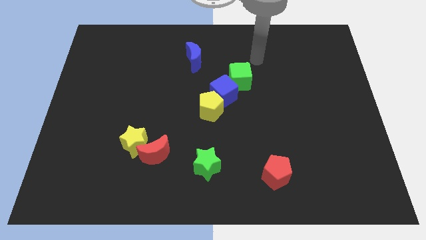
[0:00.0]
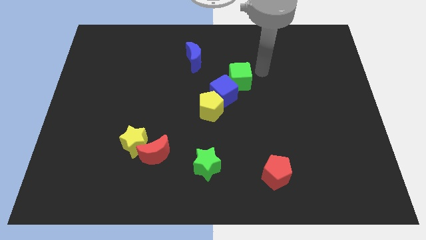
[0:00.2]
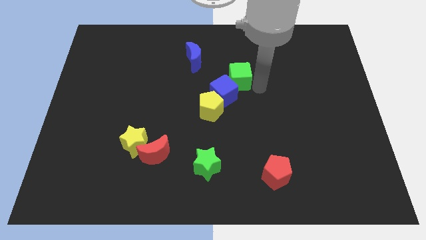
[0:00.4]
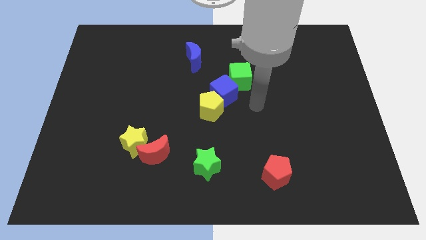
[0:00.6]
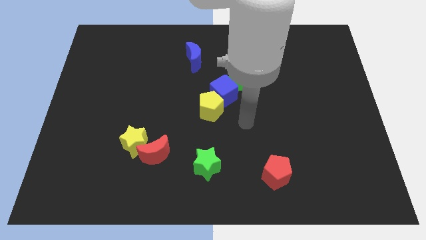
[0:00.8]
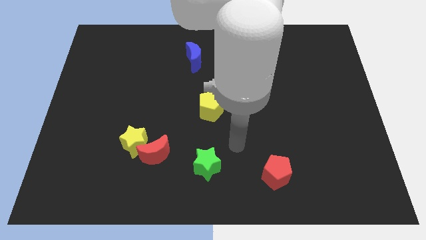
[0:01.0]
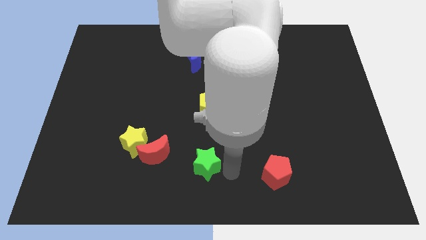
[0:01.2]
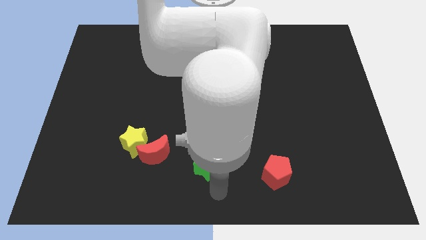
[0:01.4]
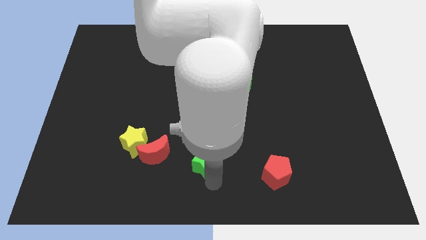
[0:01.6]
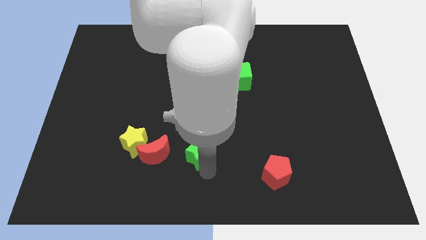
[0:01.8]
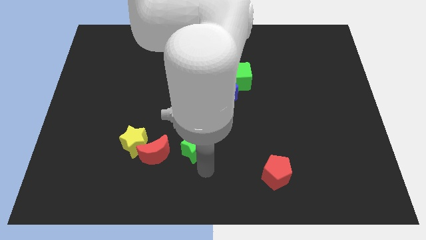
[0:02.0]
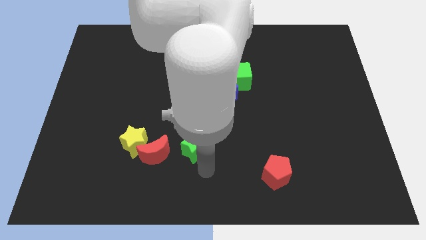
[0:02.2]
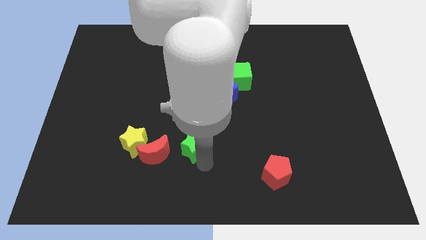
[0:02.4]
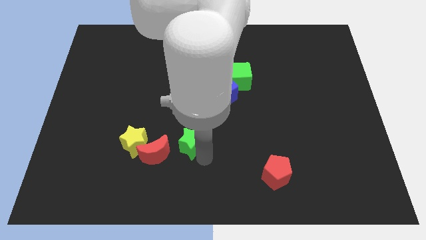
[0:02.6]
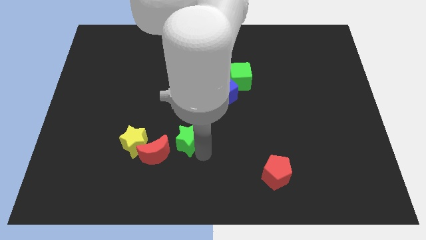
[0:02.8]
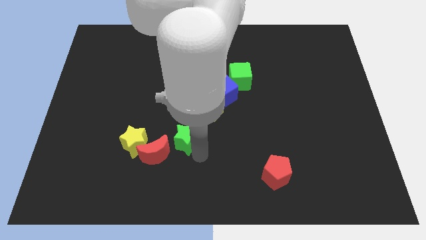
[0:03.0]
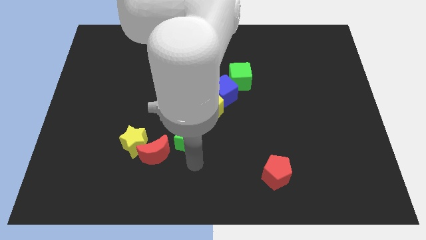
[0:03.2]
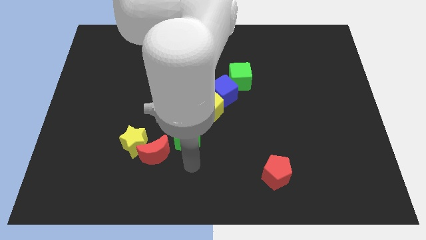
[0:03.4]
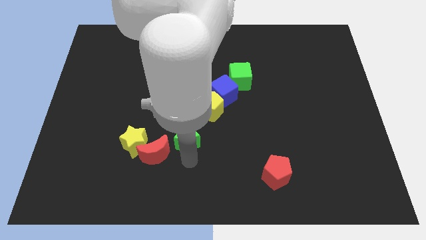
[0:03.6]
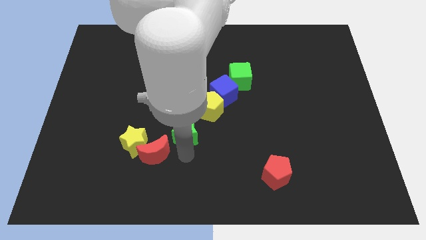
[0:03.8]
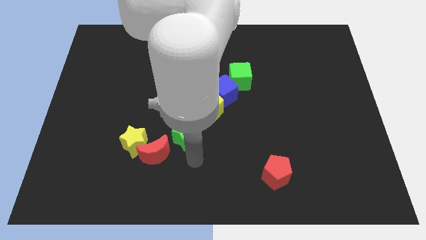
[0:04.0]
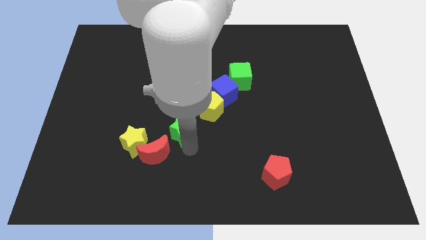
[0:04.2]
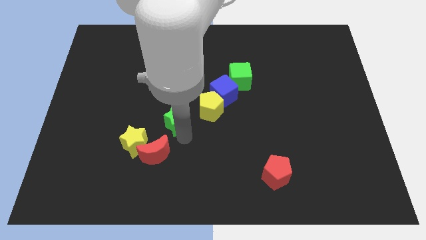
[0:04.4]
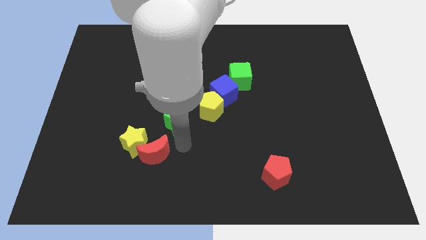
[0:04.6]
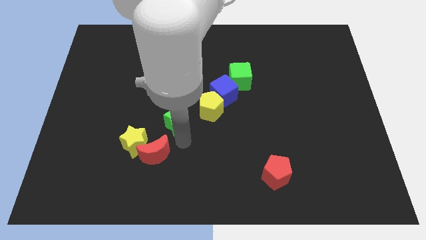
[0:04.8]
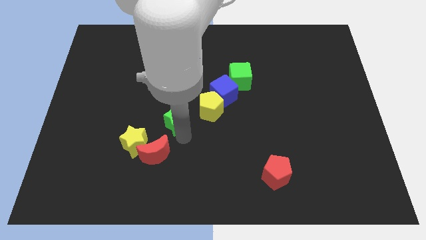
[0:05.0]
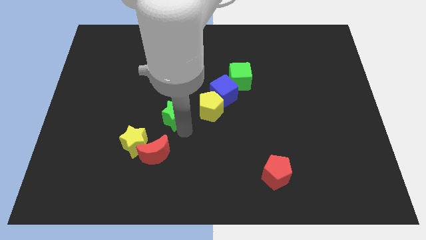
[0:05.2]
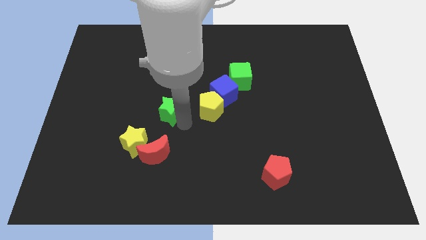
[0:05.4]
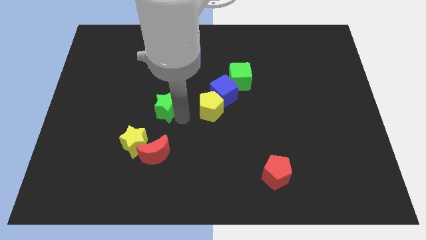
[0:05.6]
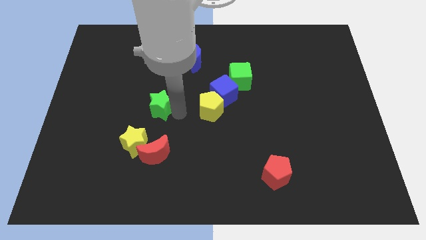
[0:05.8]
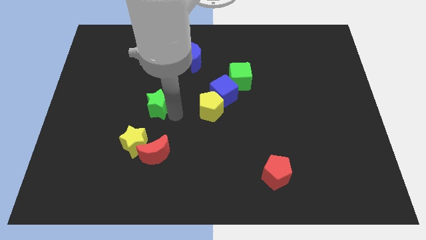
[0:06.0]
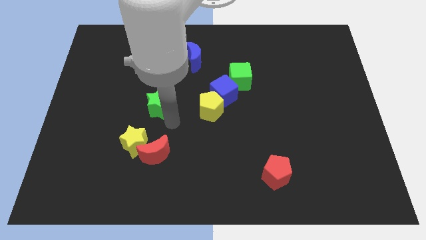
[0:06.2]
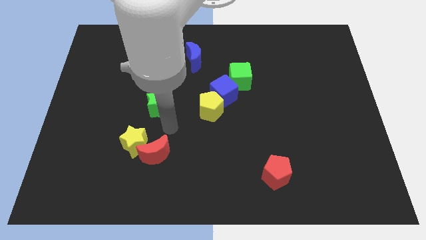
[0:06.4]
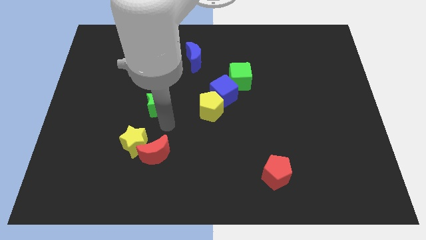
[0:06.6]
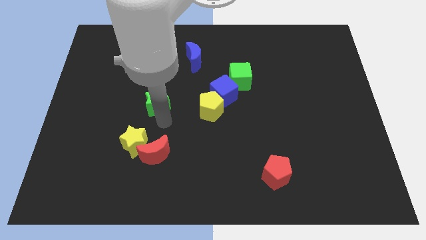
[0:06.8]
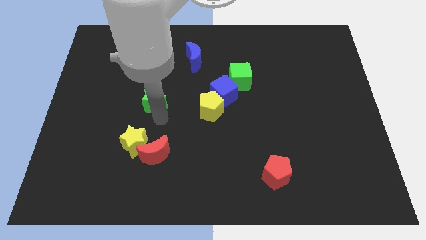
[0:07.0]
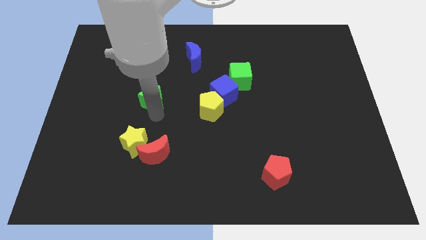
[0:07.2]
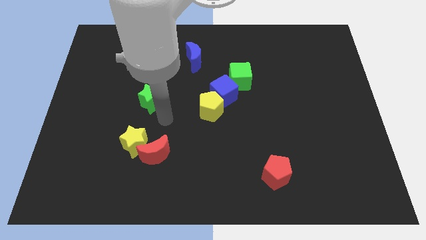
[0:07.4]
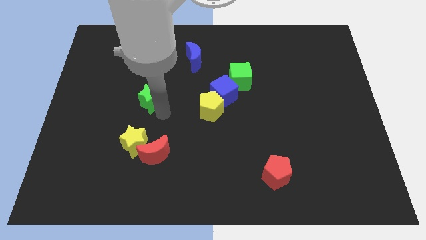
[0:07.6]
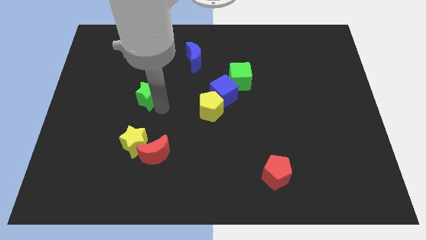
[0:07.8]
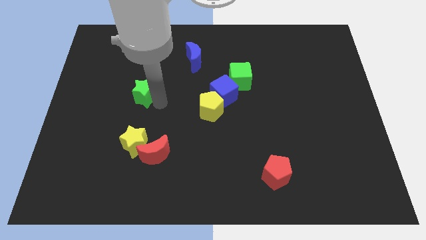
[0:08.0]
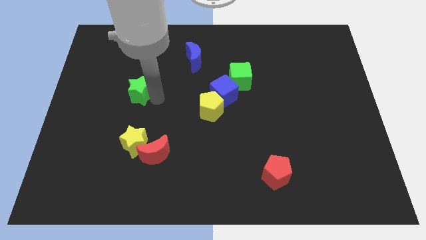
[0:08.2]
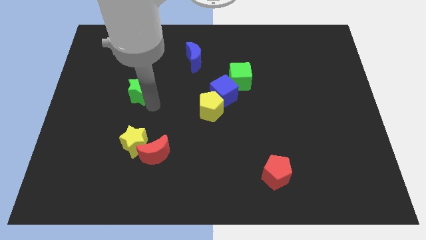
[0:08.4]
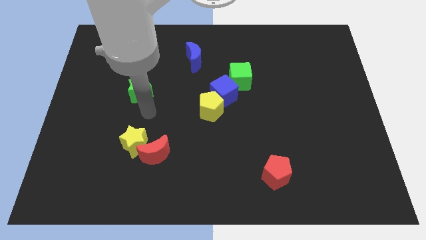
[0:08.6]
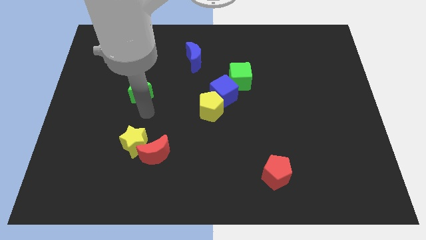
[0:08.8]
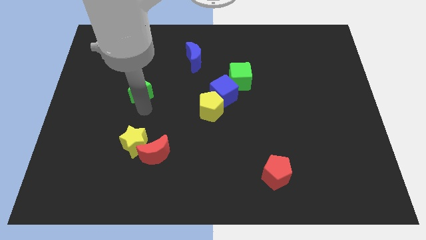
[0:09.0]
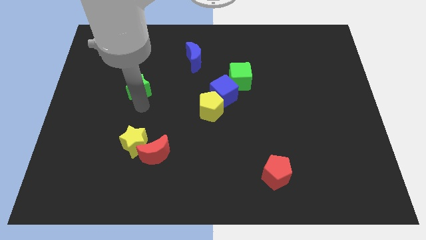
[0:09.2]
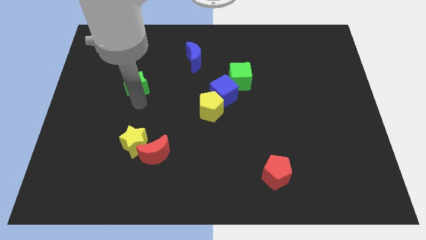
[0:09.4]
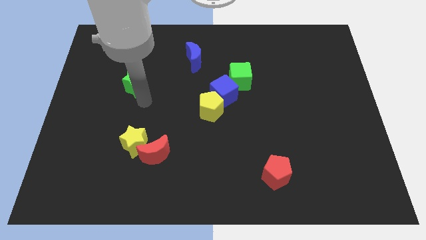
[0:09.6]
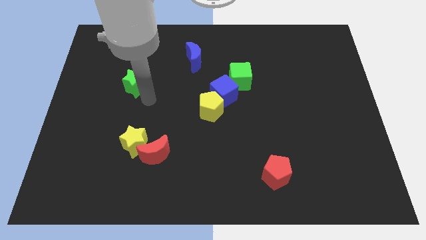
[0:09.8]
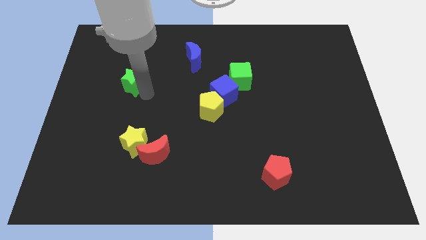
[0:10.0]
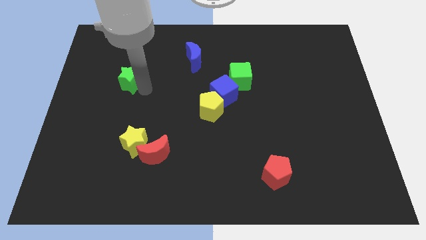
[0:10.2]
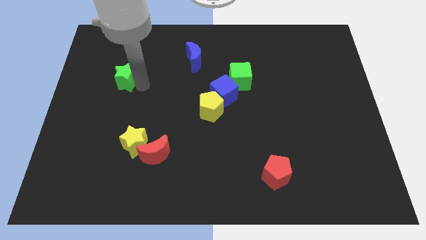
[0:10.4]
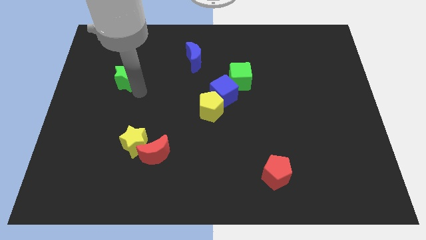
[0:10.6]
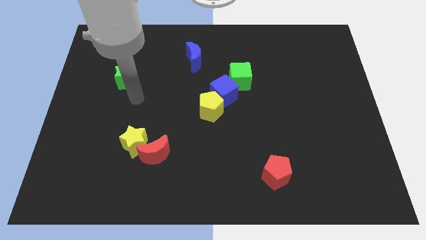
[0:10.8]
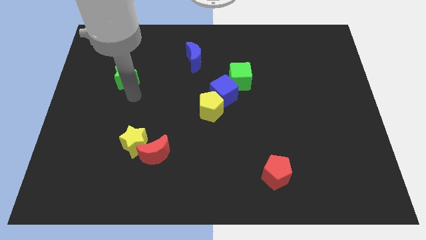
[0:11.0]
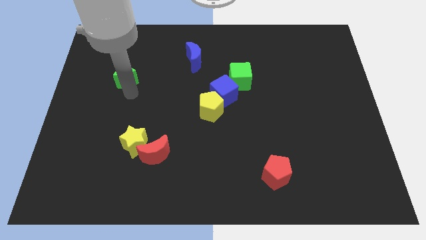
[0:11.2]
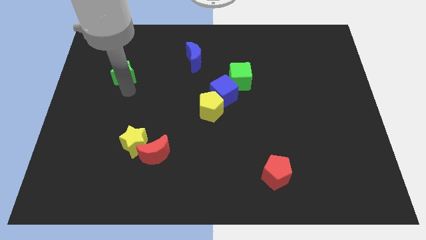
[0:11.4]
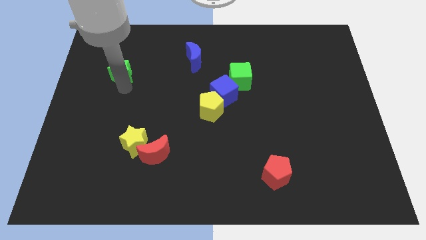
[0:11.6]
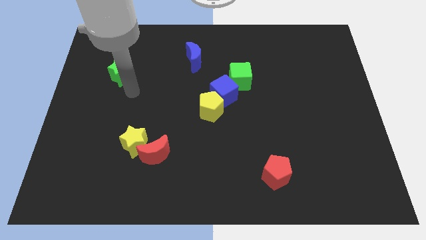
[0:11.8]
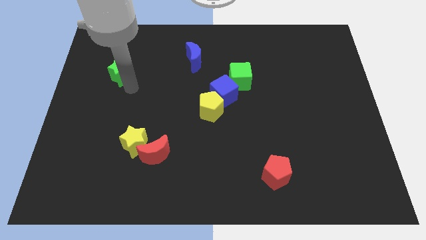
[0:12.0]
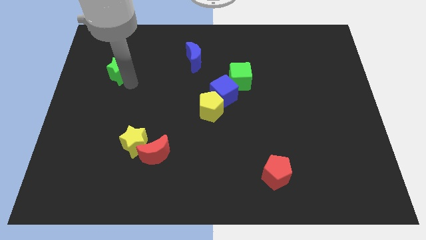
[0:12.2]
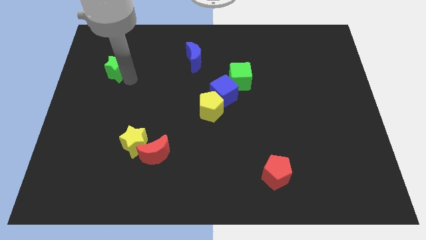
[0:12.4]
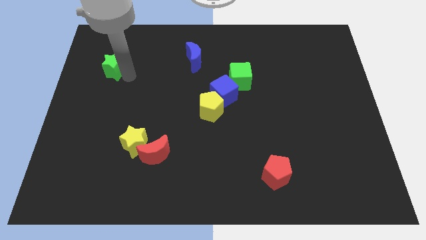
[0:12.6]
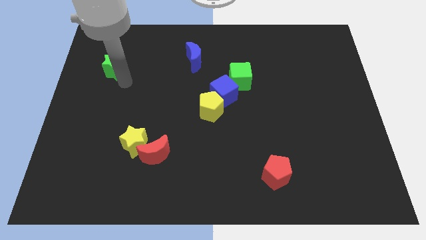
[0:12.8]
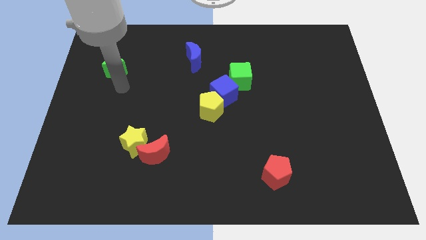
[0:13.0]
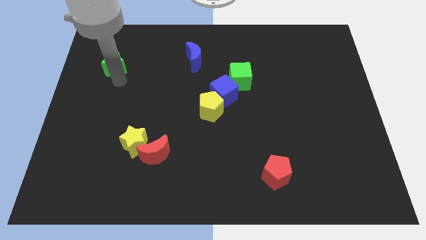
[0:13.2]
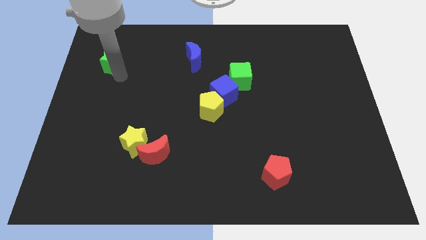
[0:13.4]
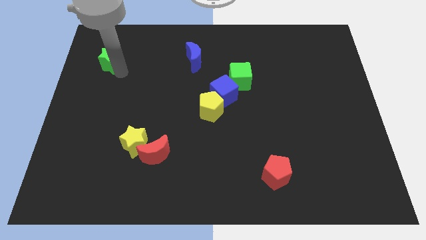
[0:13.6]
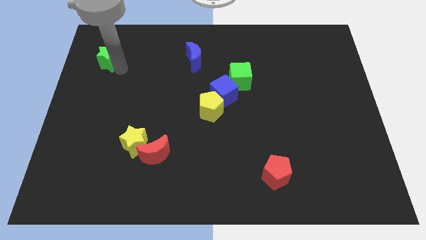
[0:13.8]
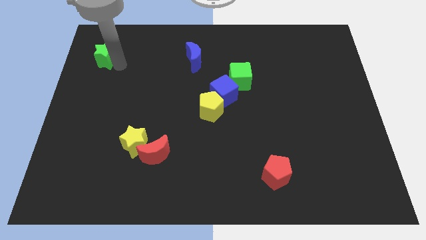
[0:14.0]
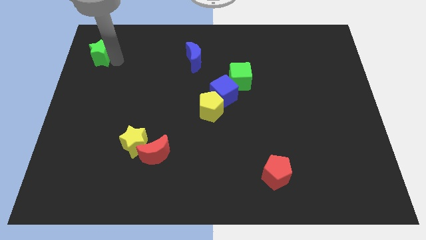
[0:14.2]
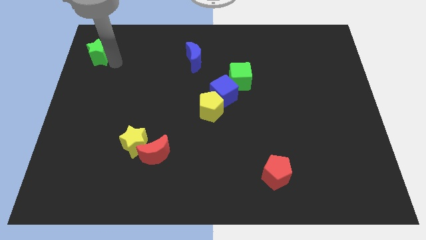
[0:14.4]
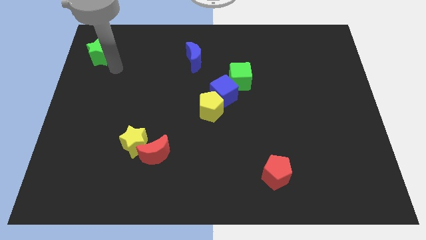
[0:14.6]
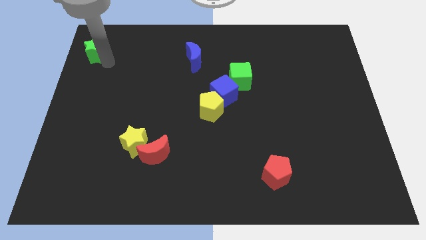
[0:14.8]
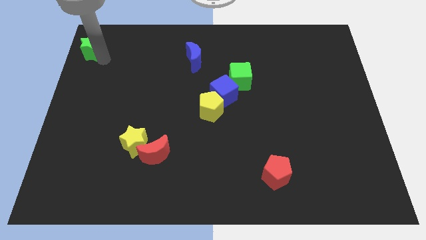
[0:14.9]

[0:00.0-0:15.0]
push the green star to the top left corner
